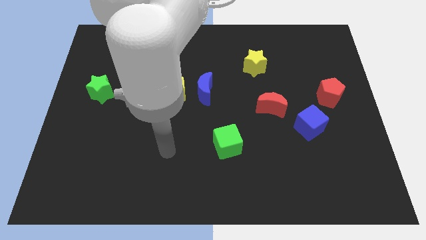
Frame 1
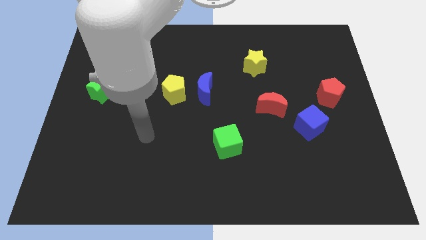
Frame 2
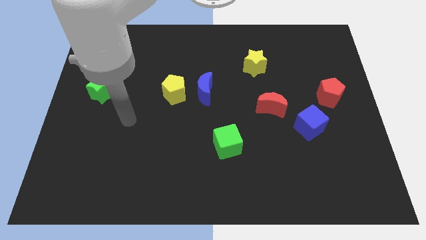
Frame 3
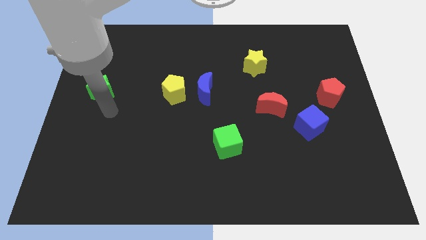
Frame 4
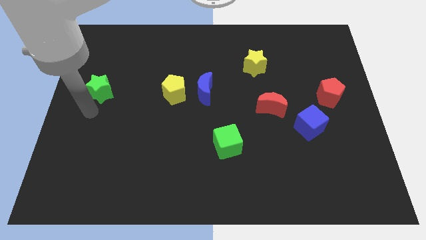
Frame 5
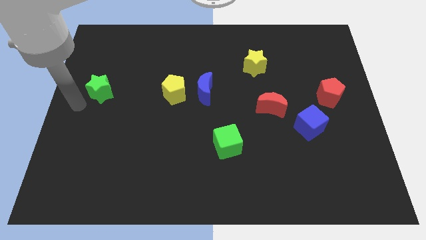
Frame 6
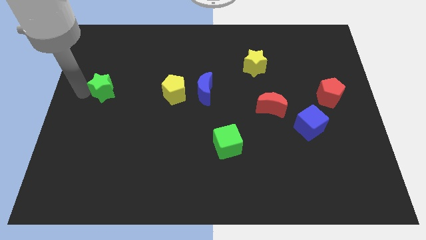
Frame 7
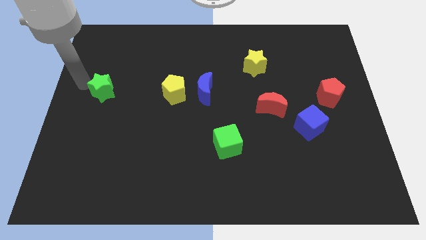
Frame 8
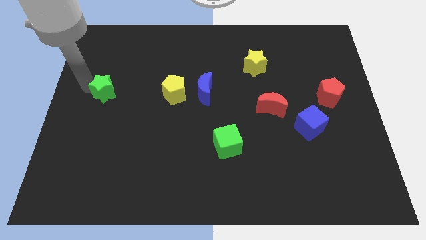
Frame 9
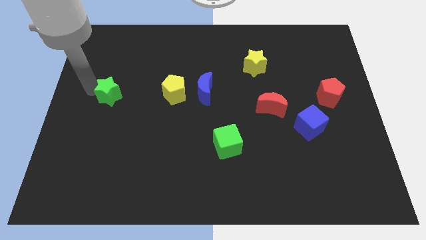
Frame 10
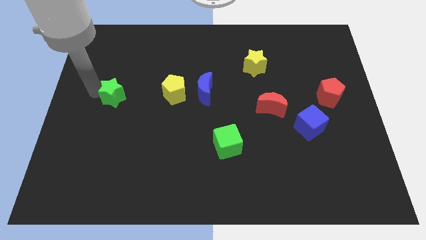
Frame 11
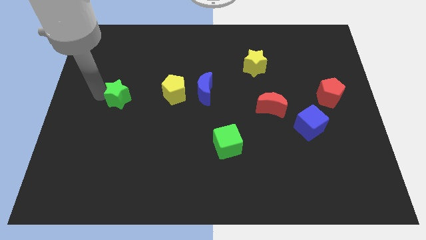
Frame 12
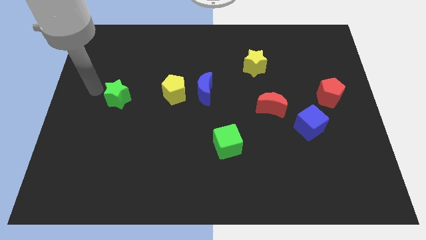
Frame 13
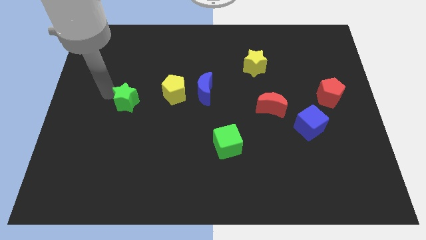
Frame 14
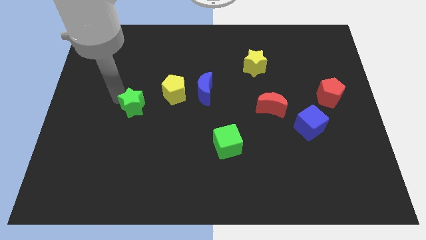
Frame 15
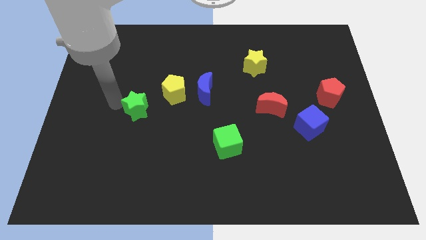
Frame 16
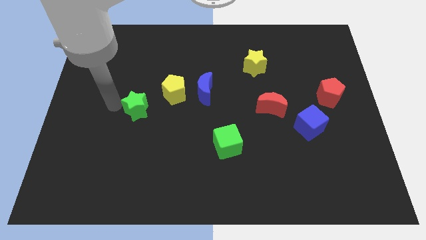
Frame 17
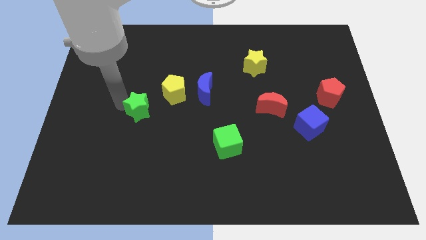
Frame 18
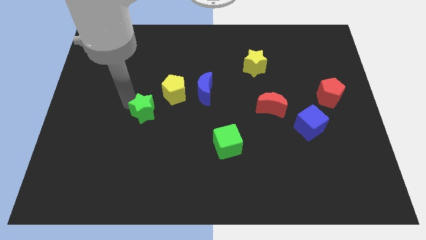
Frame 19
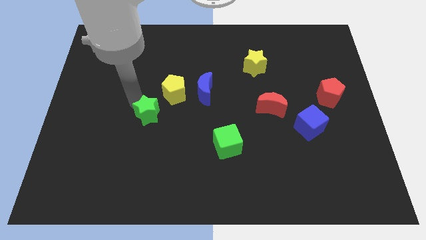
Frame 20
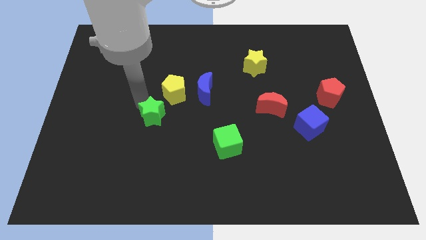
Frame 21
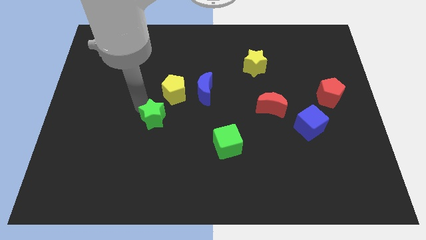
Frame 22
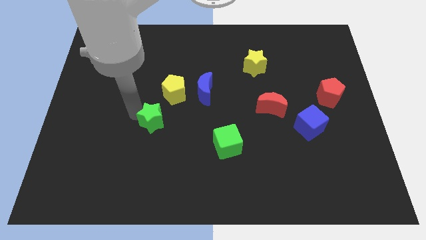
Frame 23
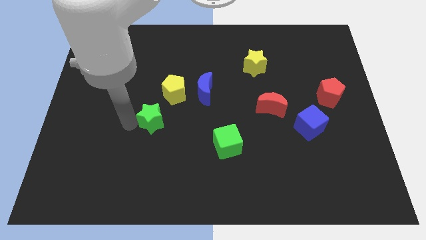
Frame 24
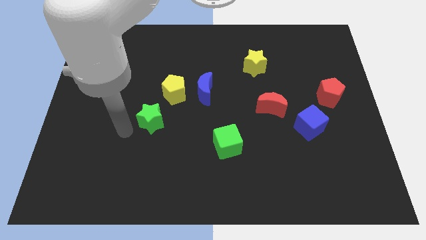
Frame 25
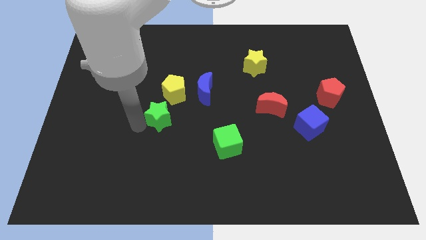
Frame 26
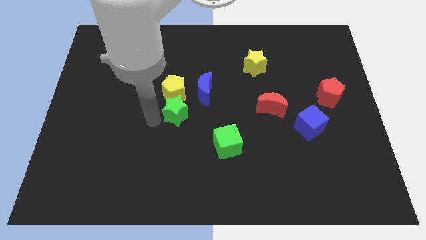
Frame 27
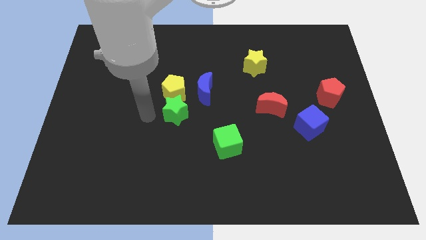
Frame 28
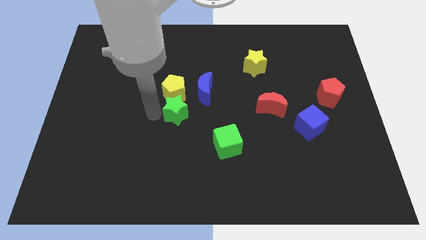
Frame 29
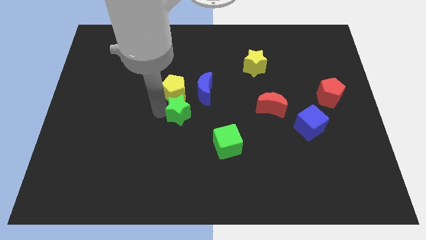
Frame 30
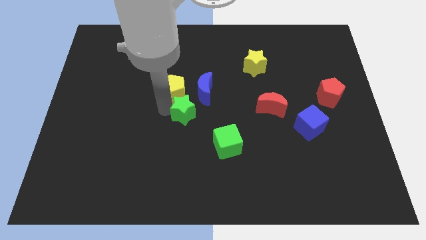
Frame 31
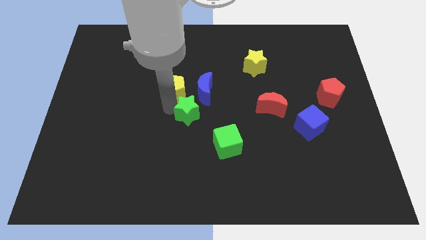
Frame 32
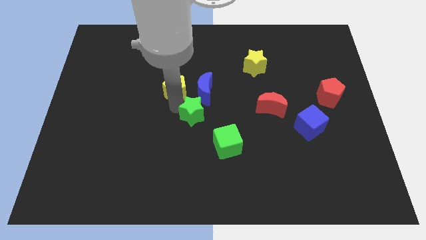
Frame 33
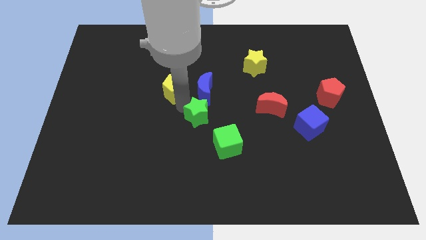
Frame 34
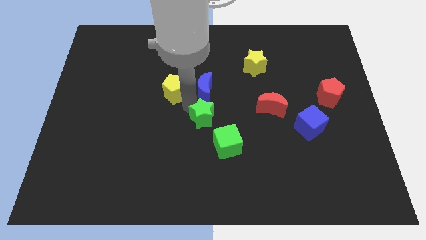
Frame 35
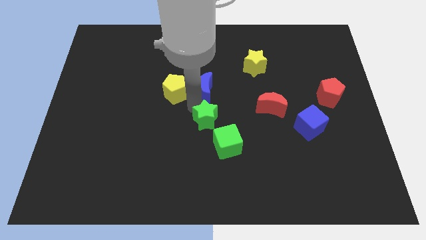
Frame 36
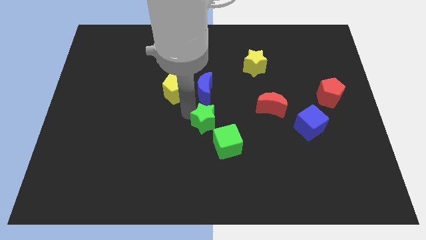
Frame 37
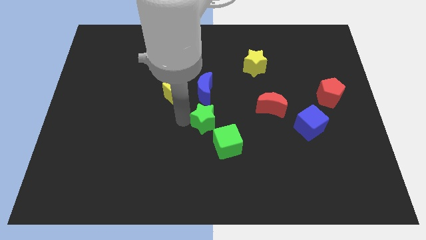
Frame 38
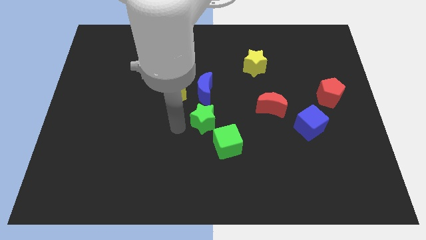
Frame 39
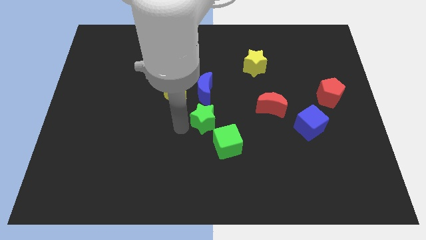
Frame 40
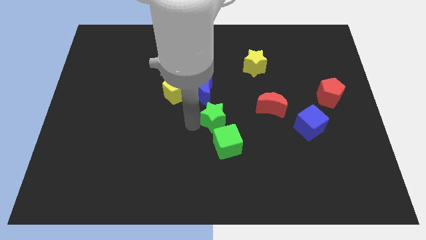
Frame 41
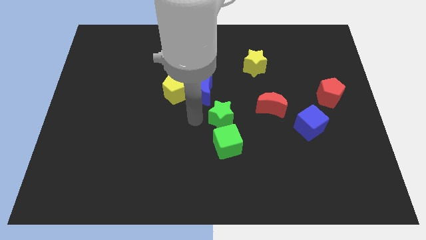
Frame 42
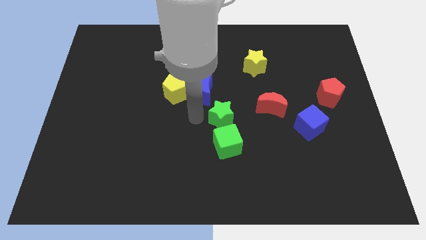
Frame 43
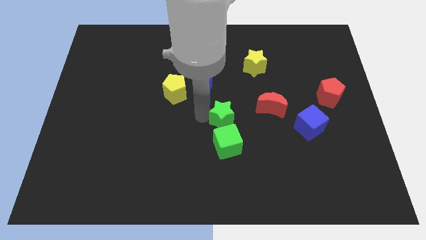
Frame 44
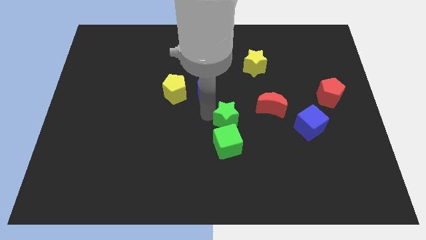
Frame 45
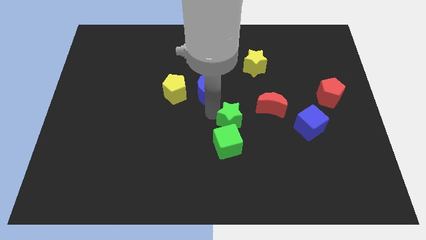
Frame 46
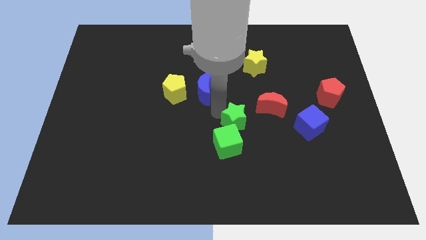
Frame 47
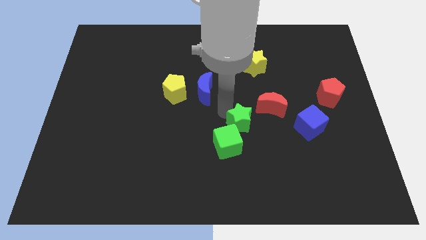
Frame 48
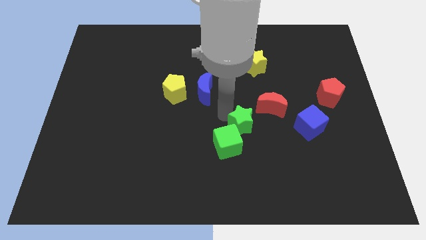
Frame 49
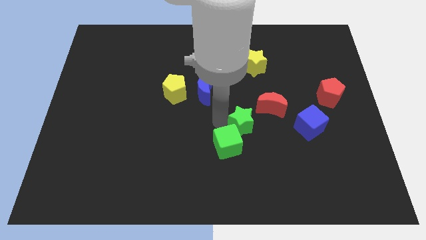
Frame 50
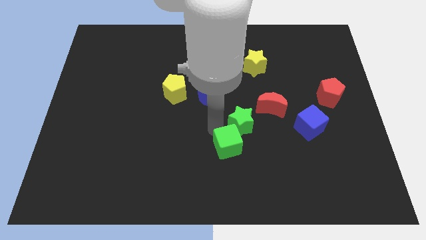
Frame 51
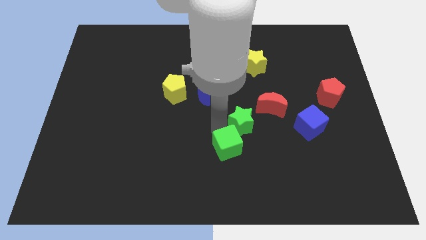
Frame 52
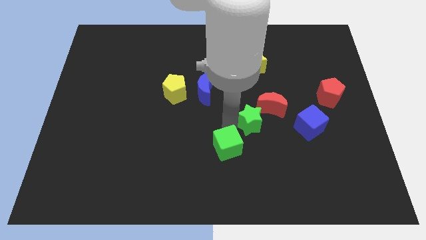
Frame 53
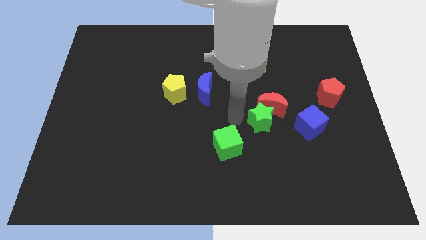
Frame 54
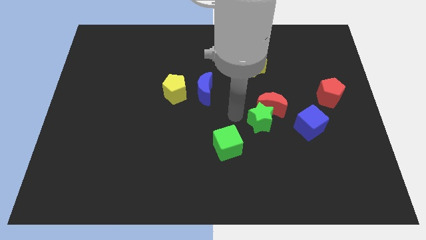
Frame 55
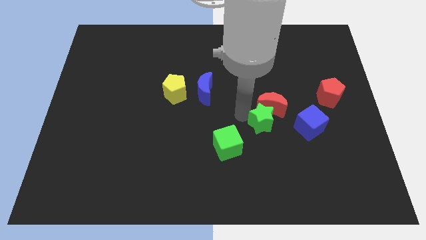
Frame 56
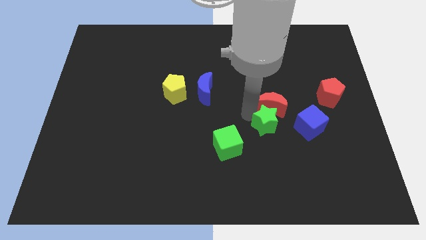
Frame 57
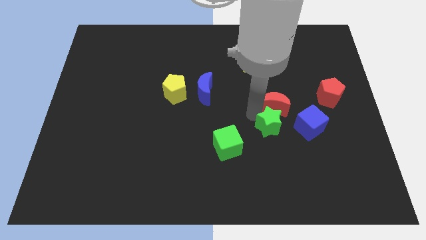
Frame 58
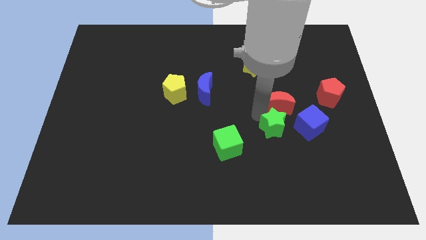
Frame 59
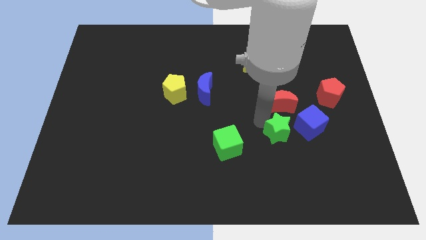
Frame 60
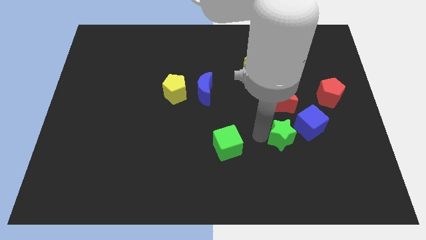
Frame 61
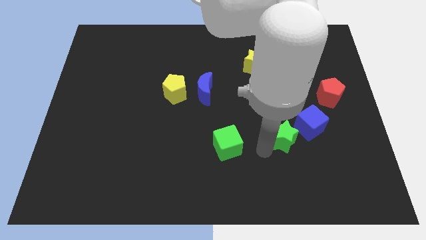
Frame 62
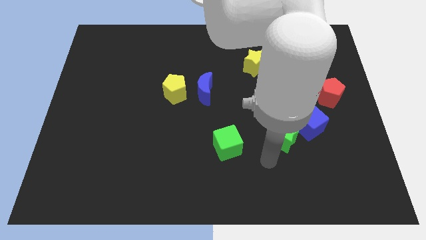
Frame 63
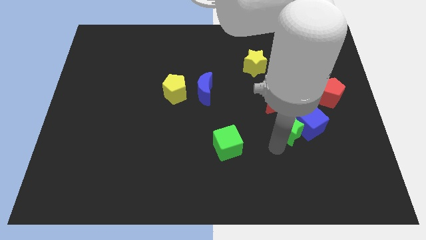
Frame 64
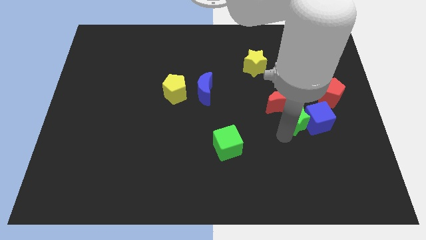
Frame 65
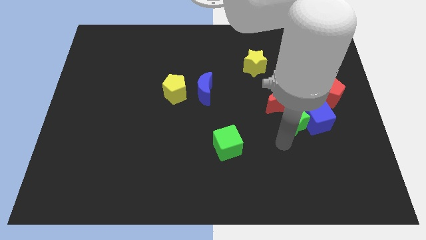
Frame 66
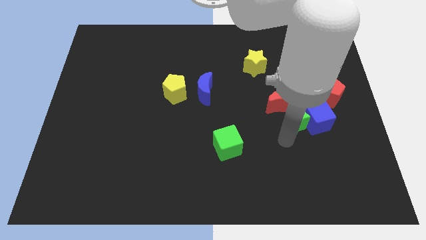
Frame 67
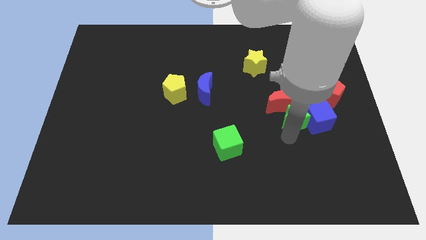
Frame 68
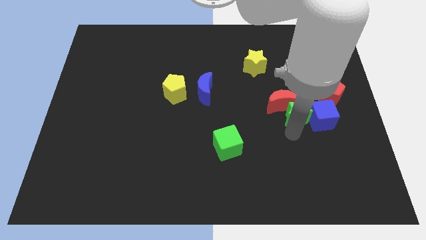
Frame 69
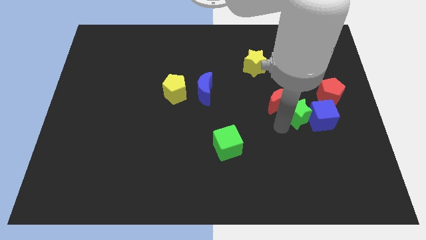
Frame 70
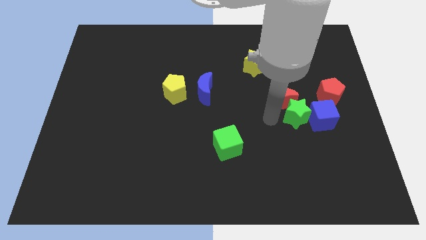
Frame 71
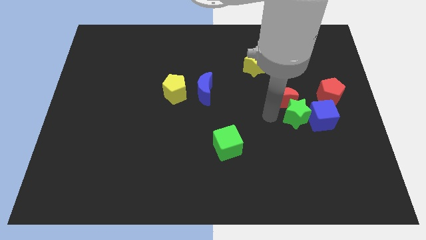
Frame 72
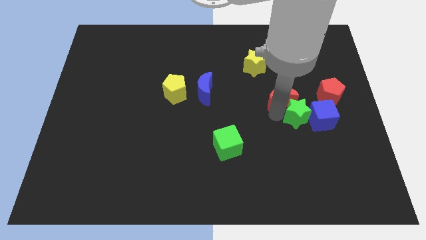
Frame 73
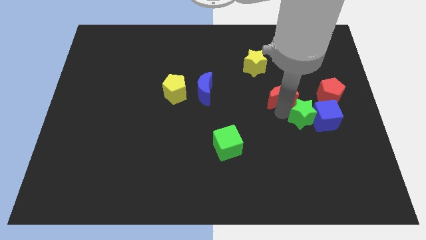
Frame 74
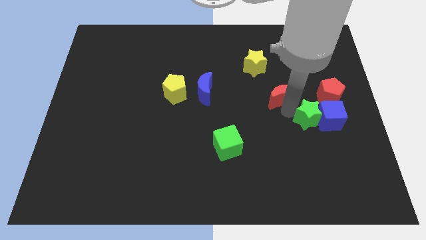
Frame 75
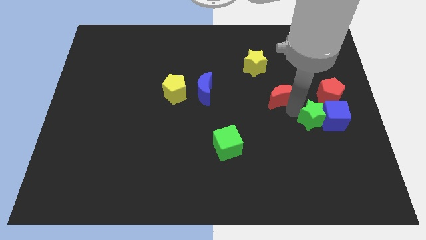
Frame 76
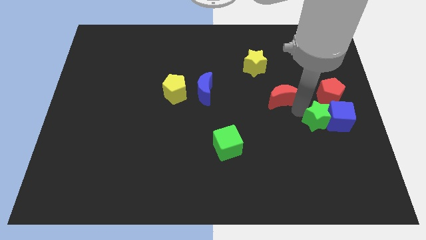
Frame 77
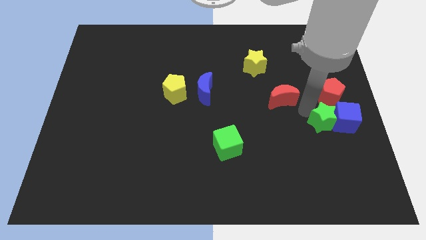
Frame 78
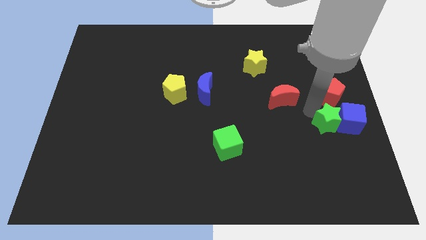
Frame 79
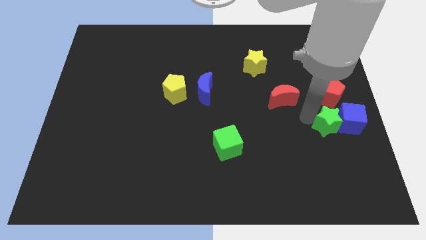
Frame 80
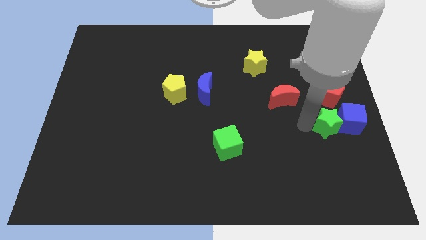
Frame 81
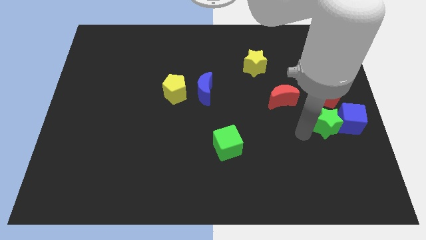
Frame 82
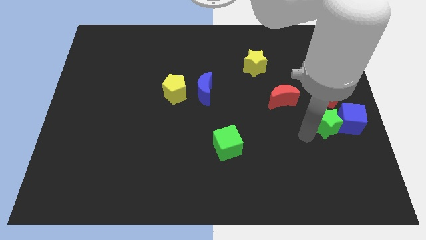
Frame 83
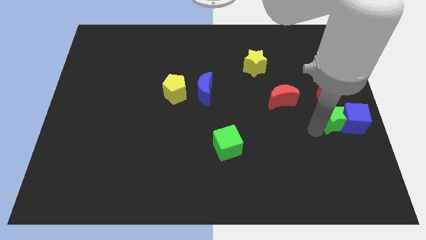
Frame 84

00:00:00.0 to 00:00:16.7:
move the green star to the center right
